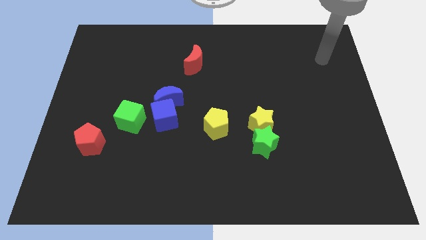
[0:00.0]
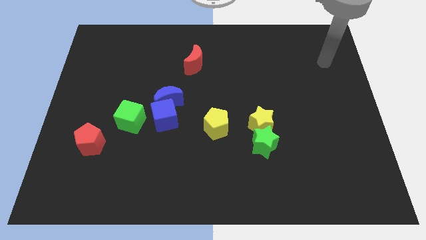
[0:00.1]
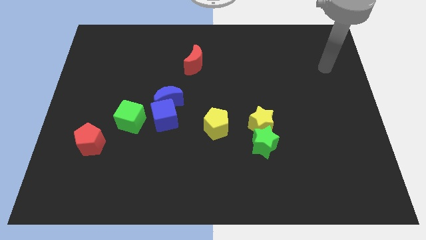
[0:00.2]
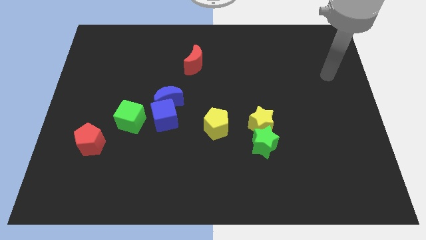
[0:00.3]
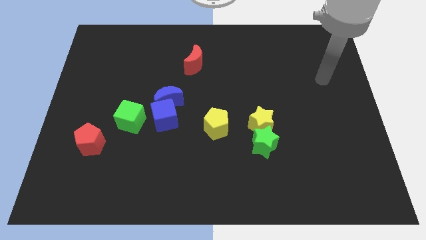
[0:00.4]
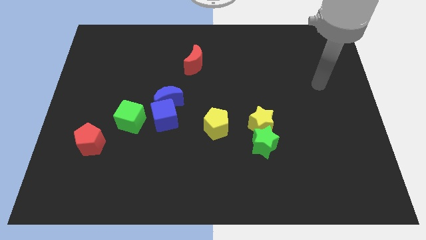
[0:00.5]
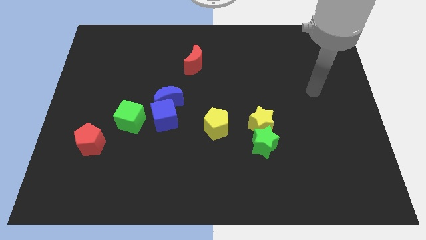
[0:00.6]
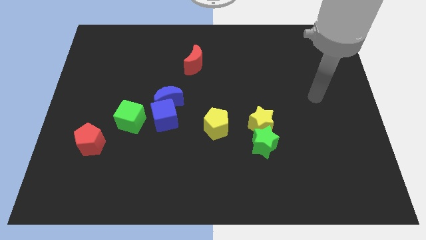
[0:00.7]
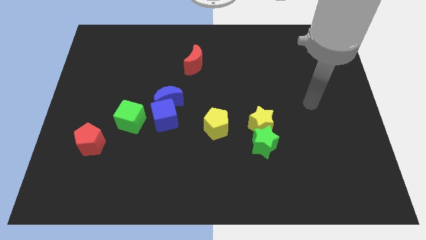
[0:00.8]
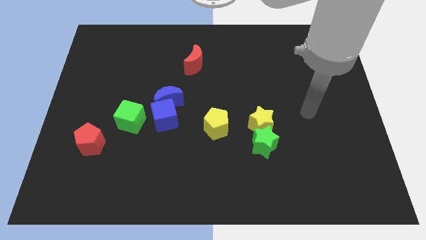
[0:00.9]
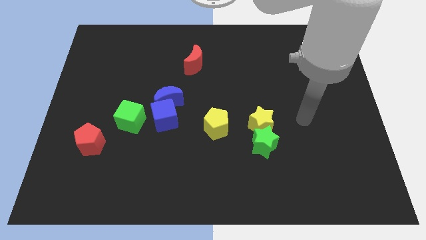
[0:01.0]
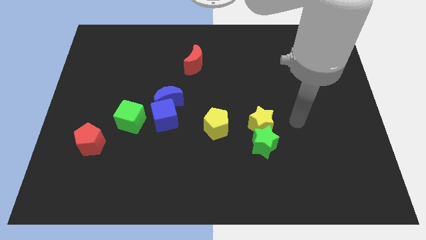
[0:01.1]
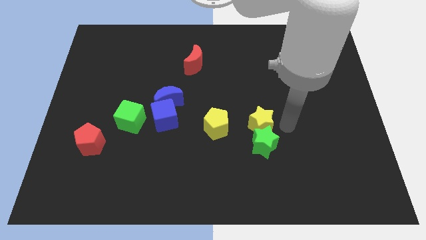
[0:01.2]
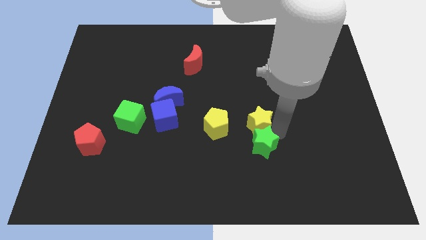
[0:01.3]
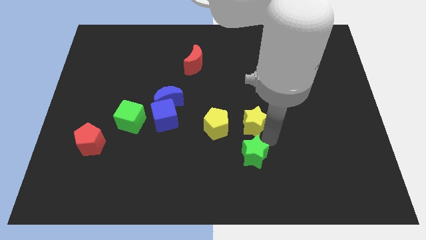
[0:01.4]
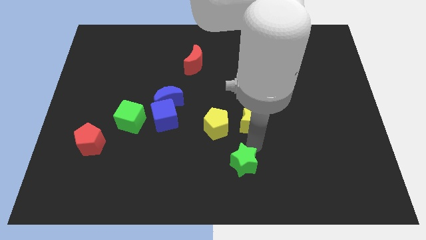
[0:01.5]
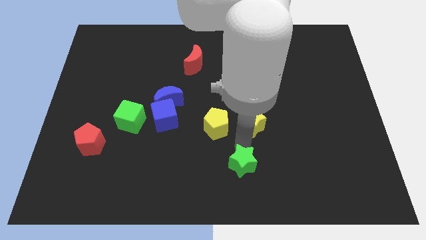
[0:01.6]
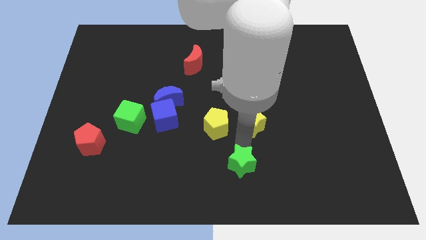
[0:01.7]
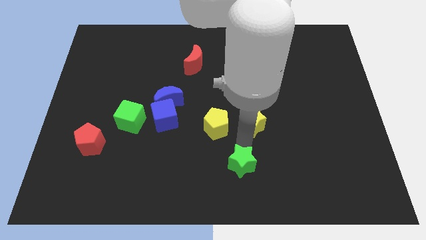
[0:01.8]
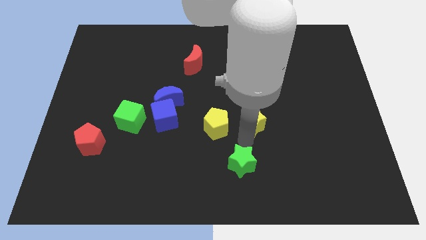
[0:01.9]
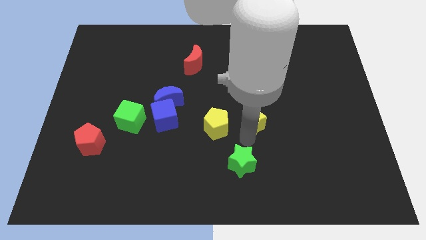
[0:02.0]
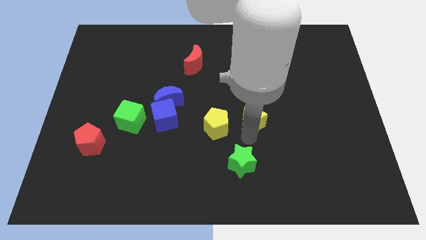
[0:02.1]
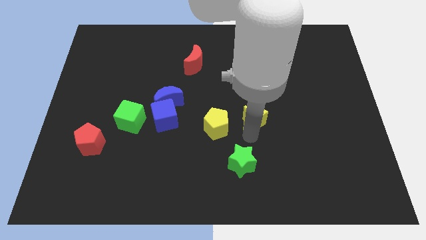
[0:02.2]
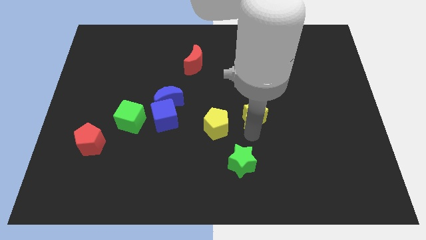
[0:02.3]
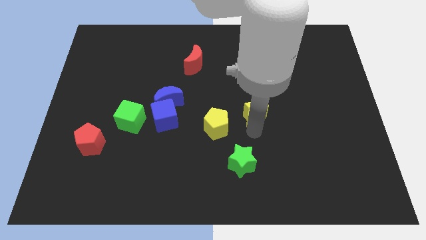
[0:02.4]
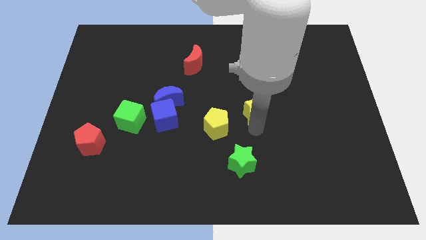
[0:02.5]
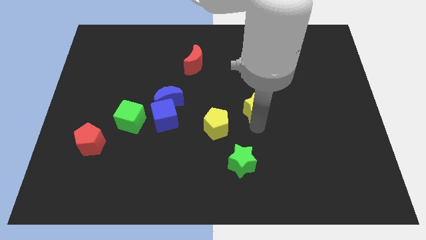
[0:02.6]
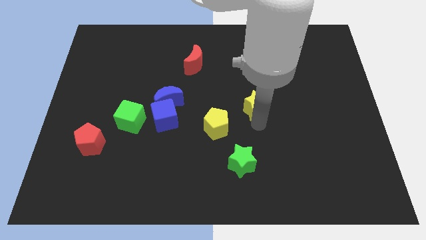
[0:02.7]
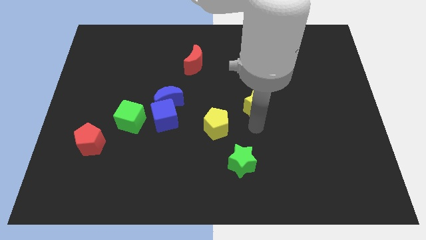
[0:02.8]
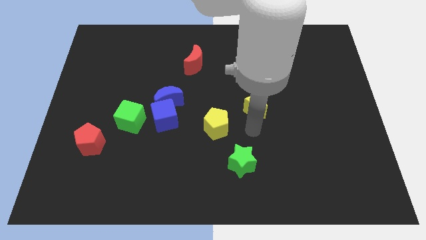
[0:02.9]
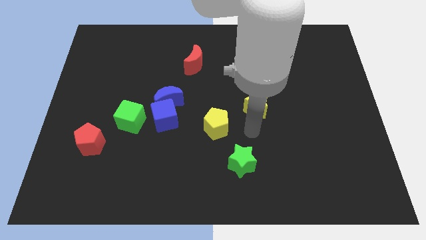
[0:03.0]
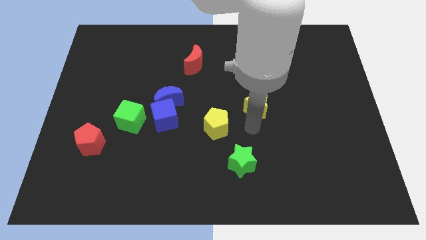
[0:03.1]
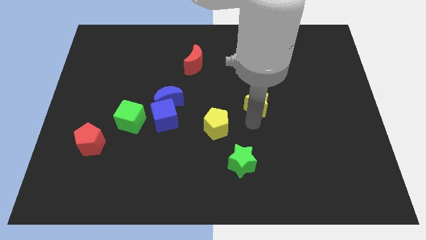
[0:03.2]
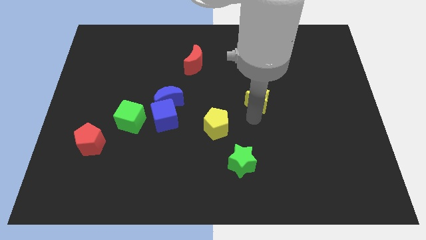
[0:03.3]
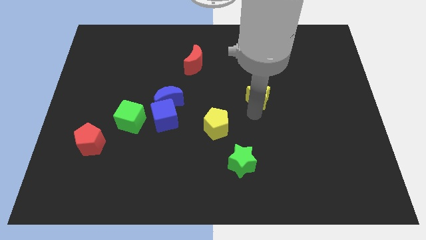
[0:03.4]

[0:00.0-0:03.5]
slightly move the yellow star upwards

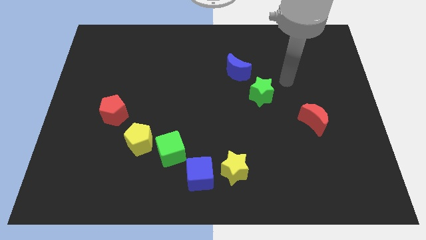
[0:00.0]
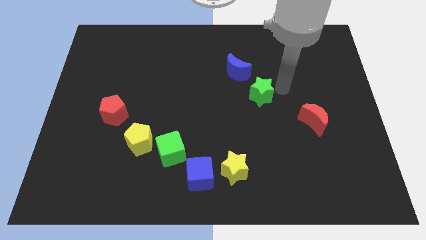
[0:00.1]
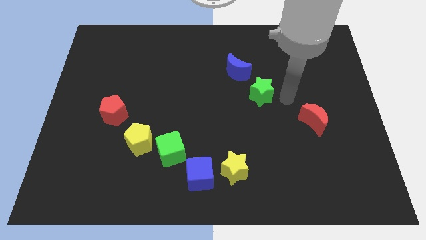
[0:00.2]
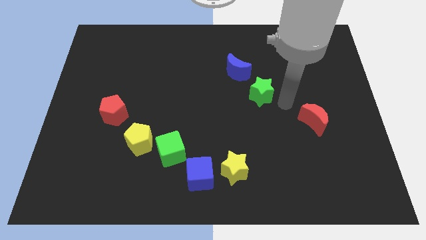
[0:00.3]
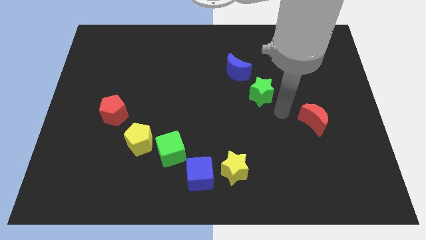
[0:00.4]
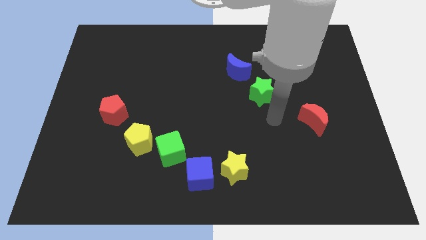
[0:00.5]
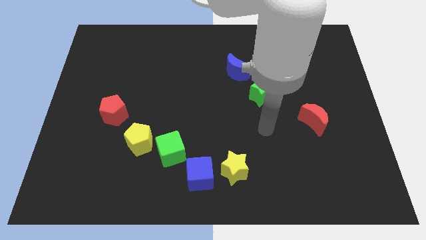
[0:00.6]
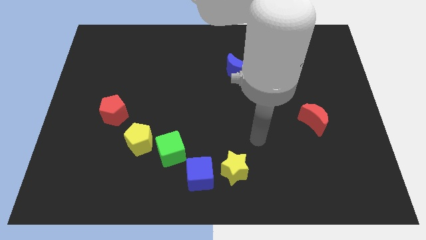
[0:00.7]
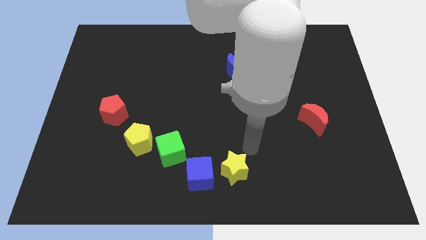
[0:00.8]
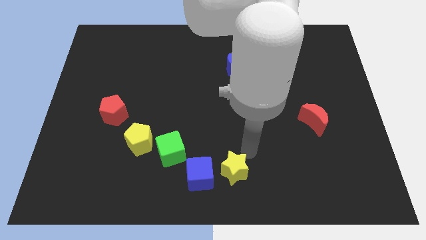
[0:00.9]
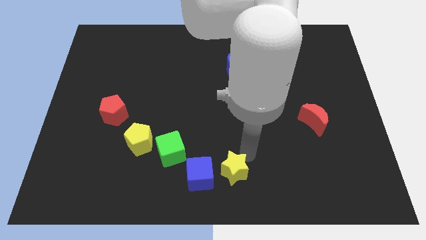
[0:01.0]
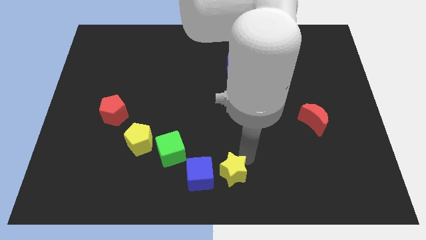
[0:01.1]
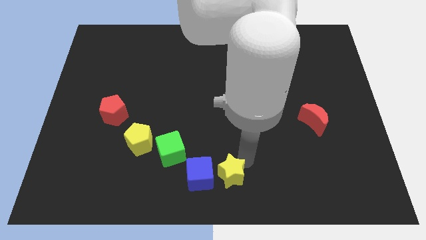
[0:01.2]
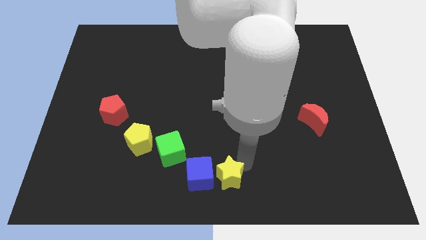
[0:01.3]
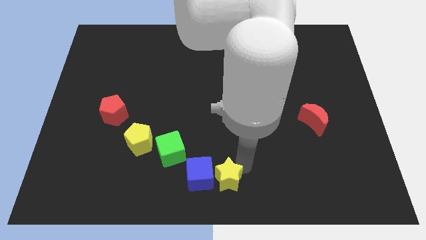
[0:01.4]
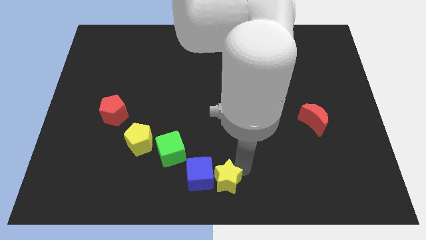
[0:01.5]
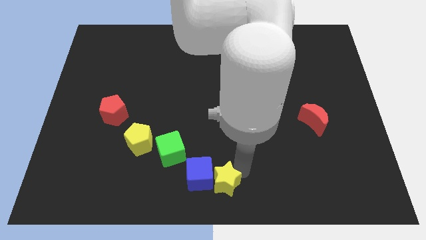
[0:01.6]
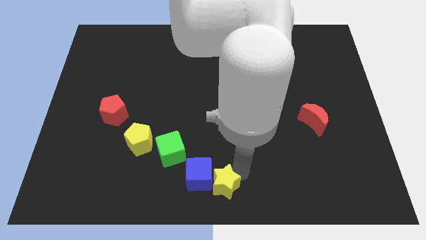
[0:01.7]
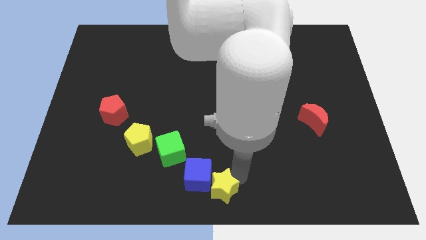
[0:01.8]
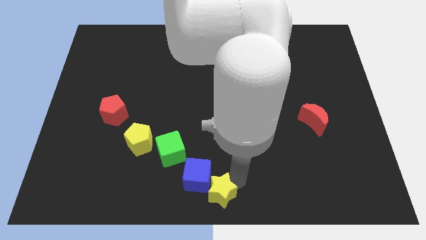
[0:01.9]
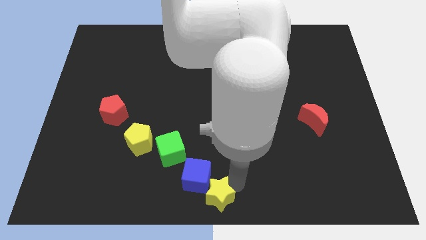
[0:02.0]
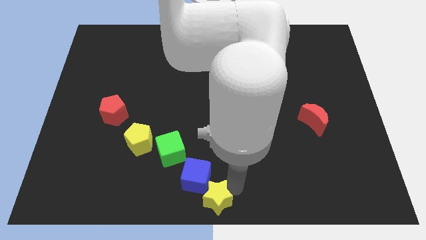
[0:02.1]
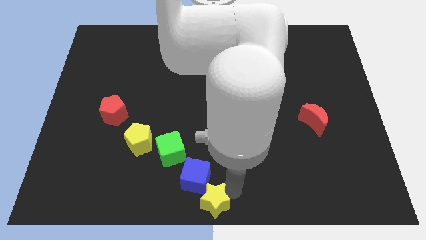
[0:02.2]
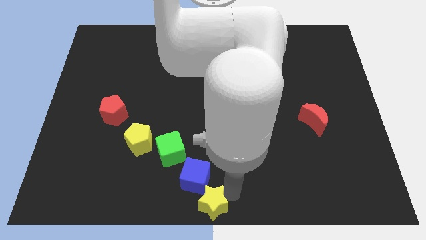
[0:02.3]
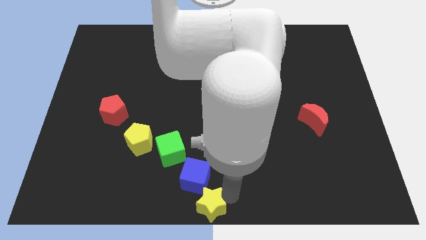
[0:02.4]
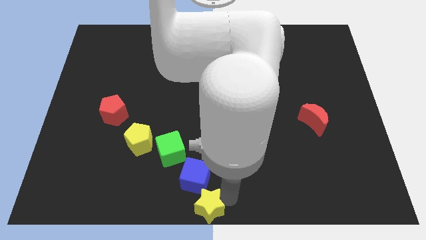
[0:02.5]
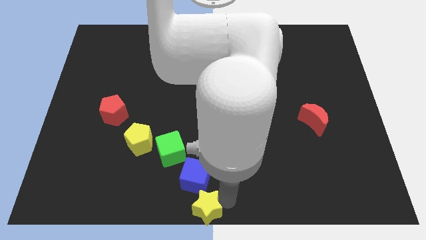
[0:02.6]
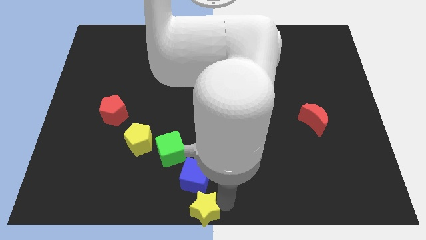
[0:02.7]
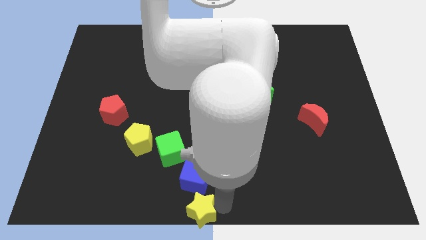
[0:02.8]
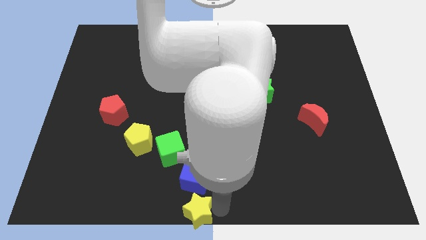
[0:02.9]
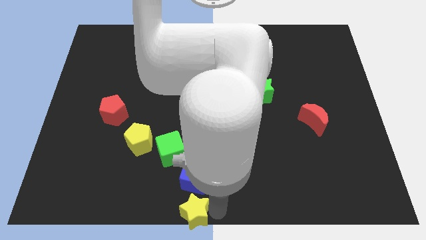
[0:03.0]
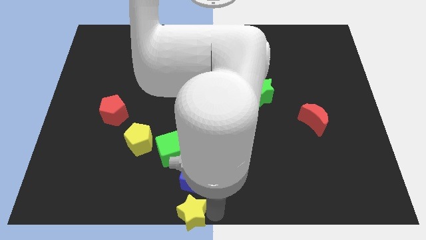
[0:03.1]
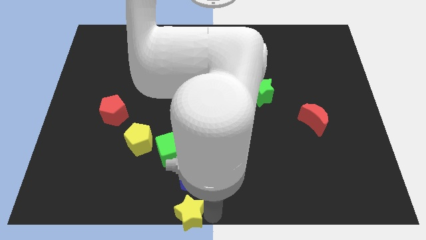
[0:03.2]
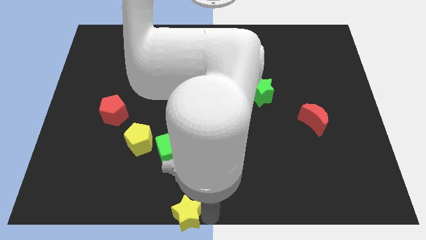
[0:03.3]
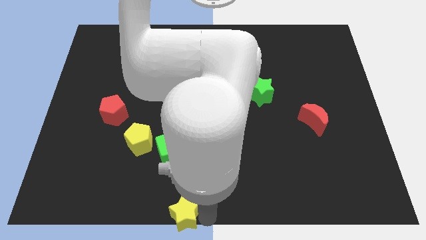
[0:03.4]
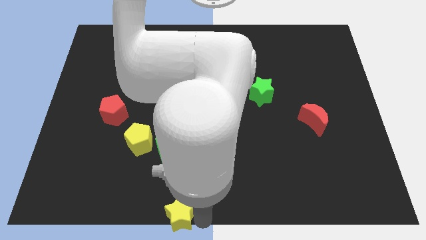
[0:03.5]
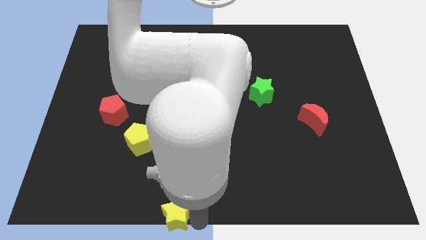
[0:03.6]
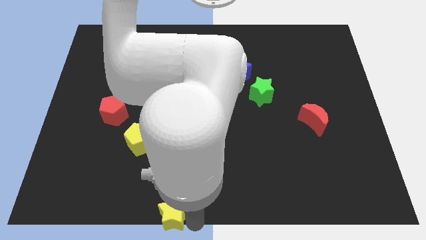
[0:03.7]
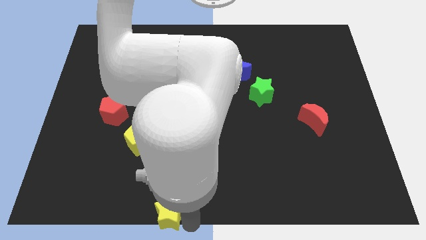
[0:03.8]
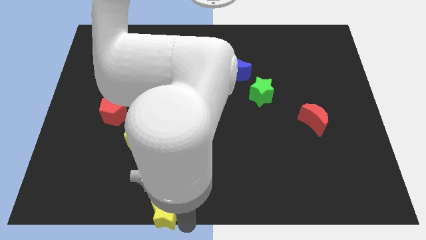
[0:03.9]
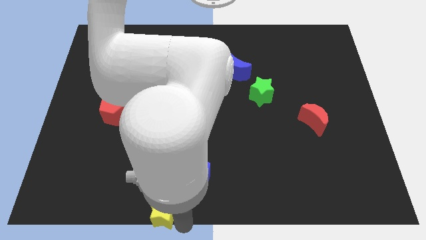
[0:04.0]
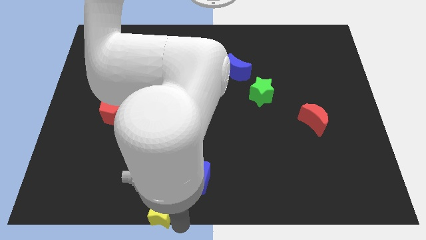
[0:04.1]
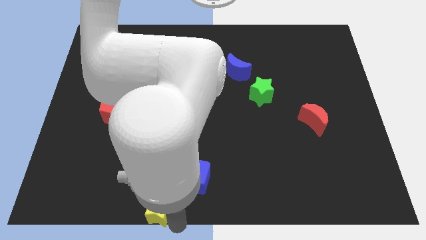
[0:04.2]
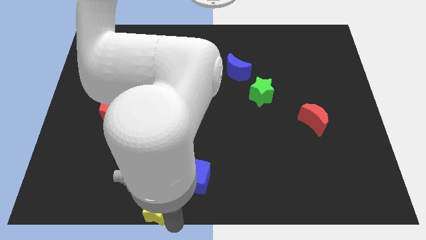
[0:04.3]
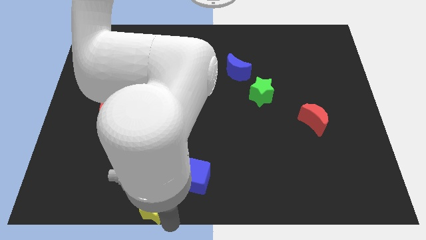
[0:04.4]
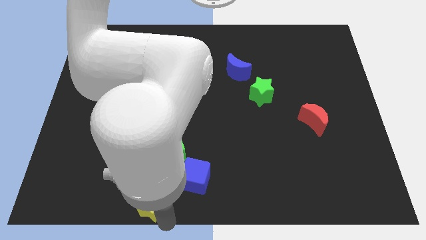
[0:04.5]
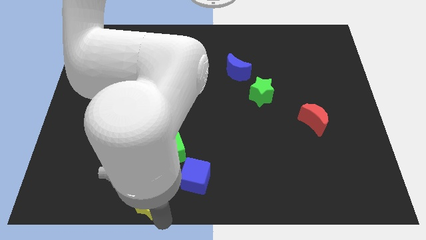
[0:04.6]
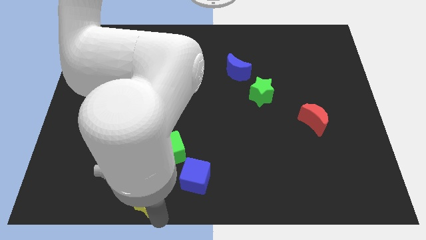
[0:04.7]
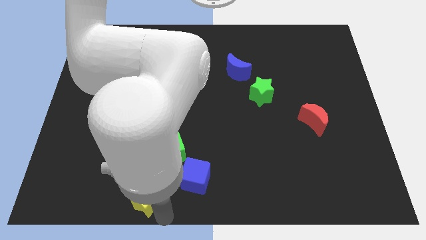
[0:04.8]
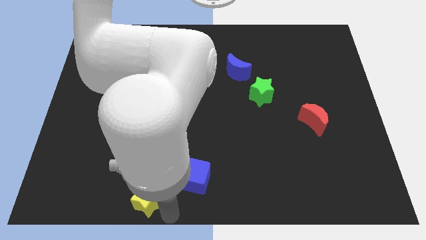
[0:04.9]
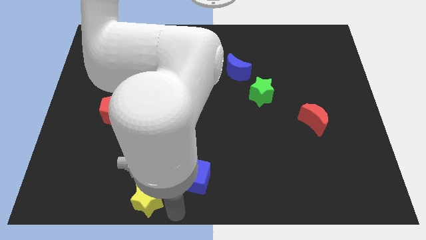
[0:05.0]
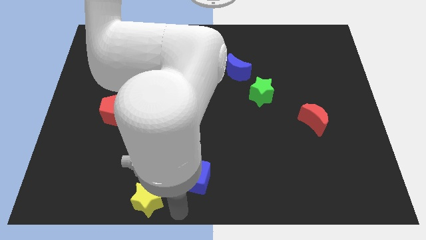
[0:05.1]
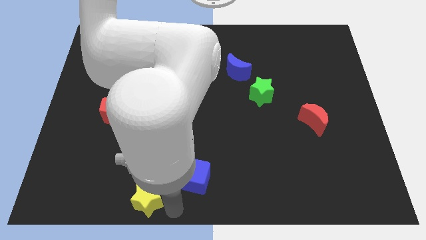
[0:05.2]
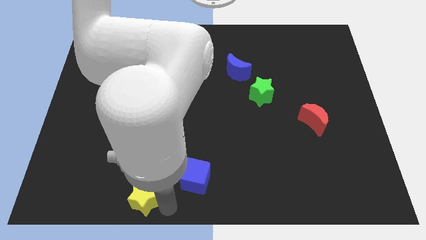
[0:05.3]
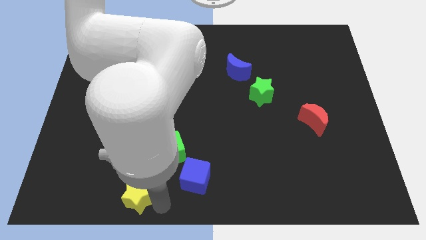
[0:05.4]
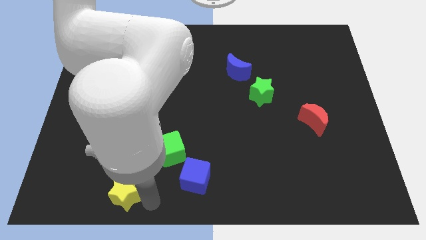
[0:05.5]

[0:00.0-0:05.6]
slide the yellow star to the left
